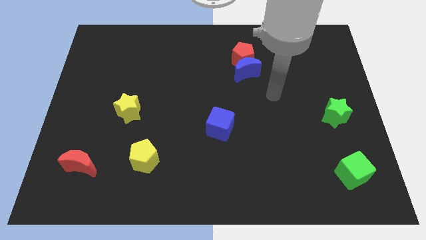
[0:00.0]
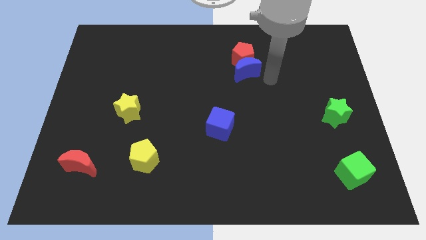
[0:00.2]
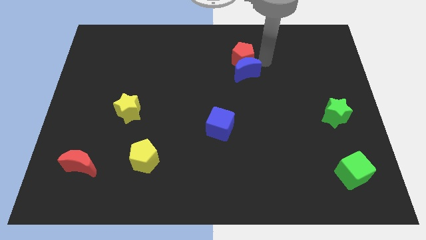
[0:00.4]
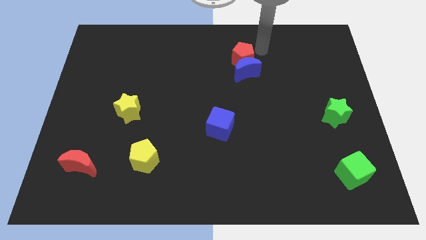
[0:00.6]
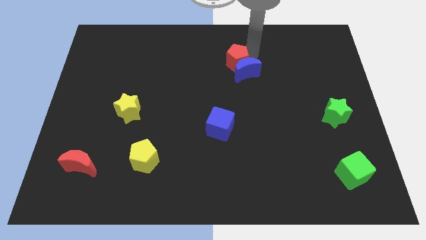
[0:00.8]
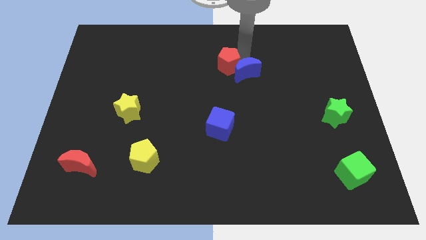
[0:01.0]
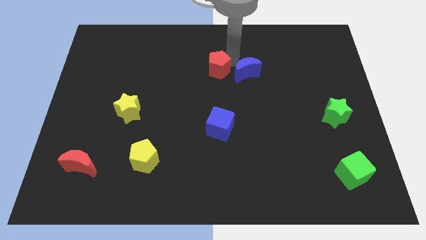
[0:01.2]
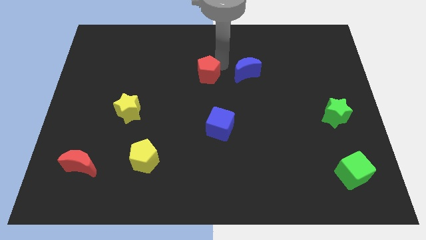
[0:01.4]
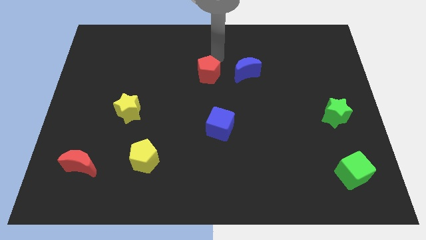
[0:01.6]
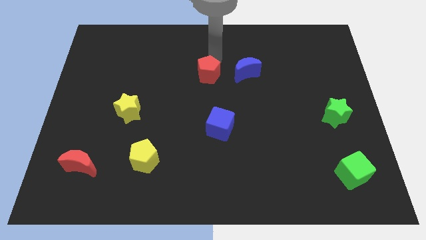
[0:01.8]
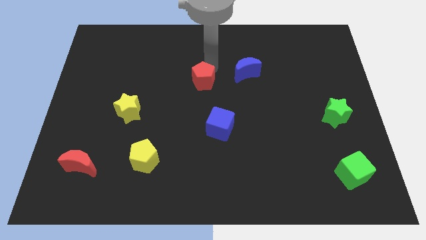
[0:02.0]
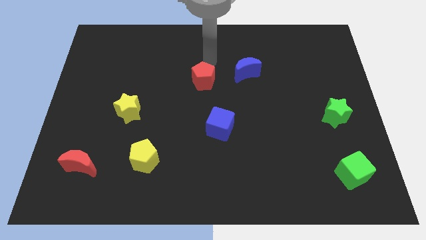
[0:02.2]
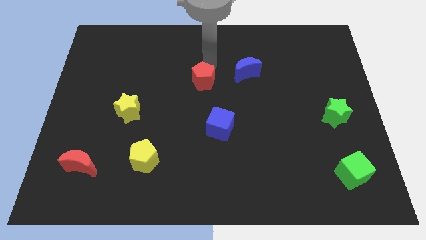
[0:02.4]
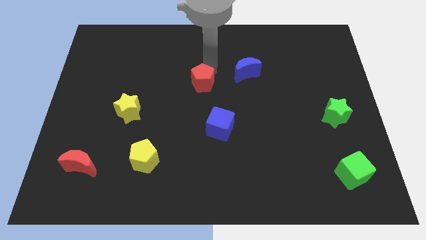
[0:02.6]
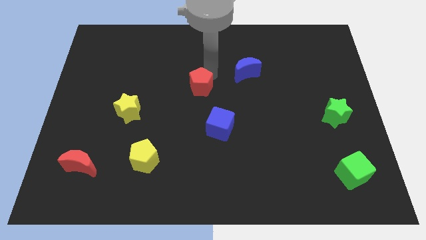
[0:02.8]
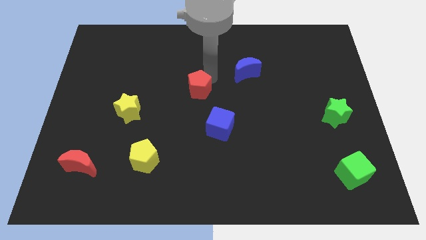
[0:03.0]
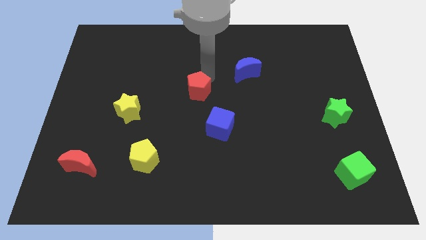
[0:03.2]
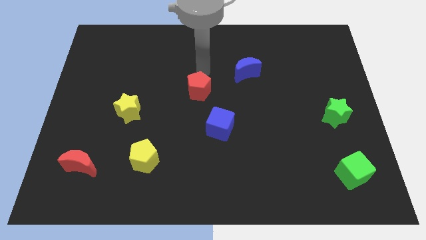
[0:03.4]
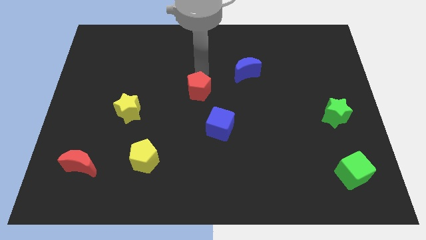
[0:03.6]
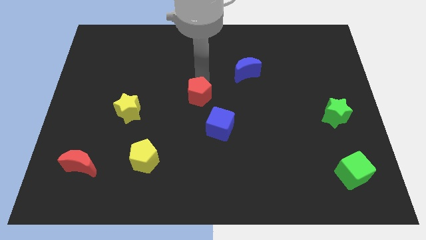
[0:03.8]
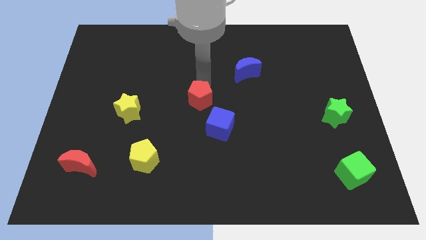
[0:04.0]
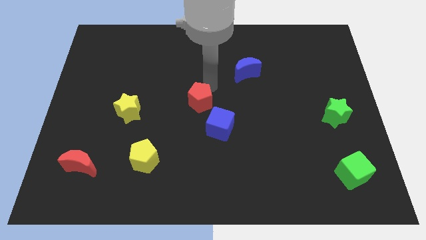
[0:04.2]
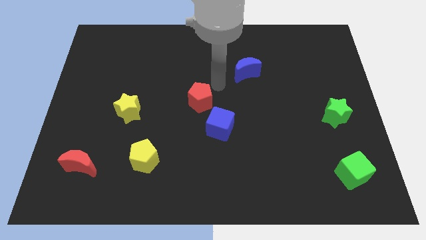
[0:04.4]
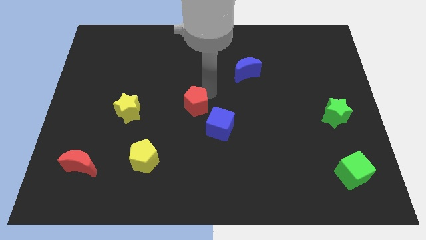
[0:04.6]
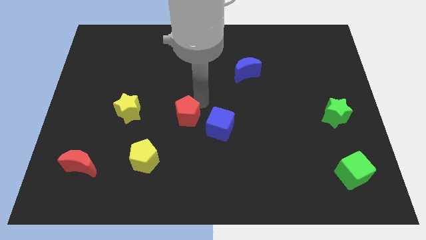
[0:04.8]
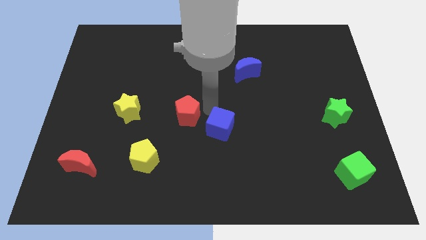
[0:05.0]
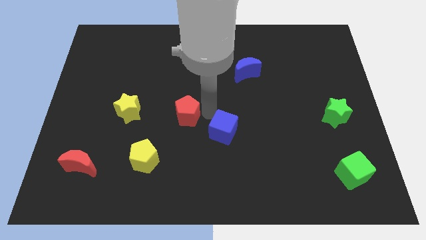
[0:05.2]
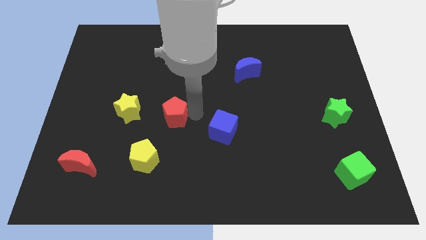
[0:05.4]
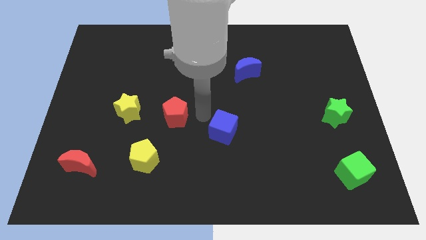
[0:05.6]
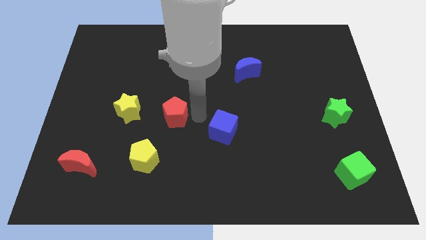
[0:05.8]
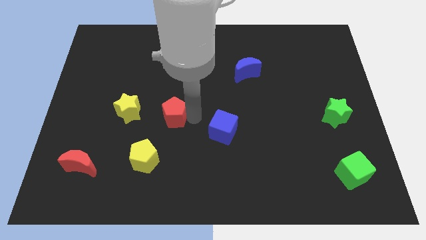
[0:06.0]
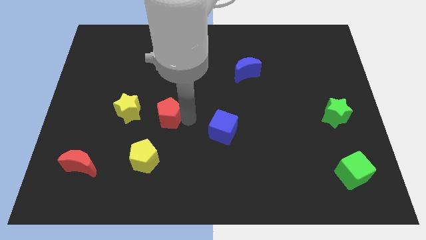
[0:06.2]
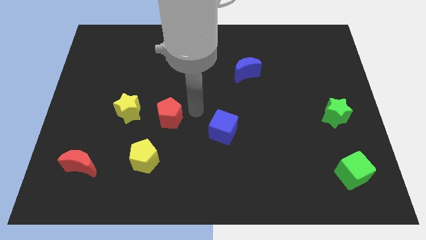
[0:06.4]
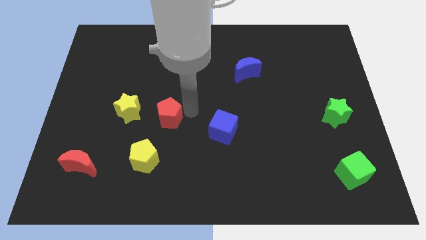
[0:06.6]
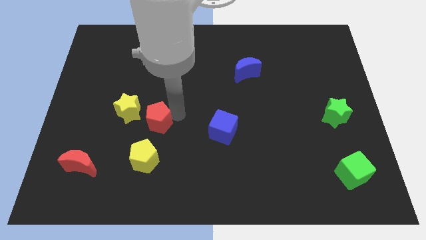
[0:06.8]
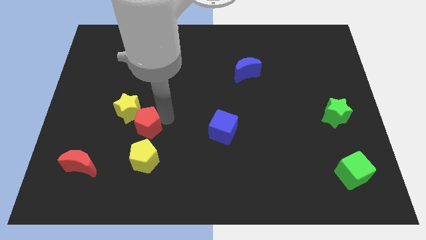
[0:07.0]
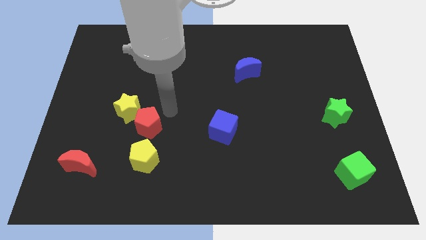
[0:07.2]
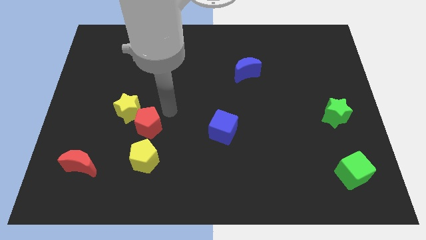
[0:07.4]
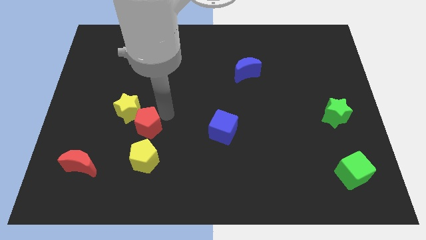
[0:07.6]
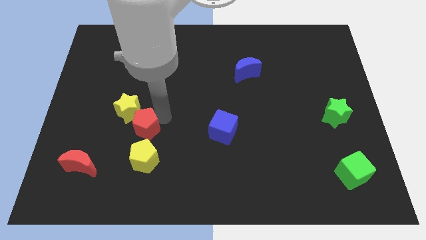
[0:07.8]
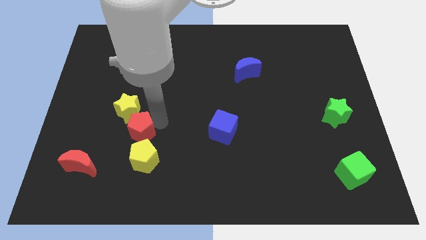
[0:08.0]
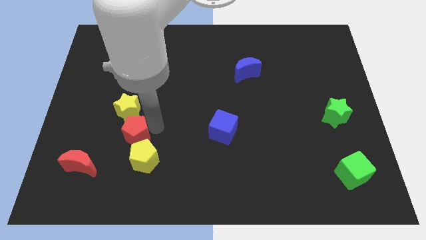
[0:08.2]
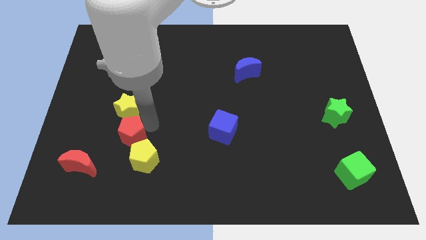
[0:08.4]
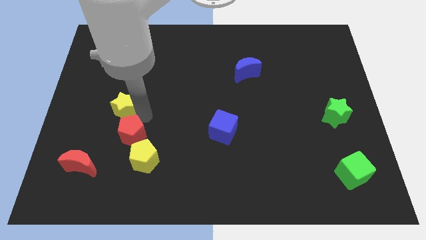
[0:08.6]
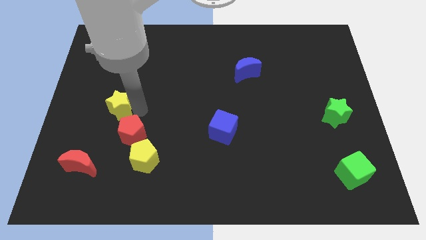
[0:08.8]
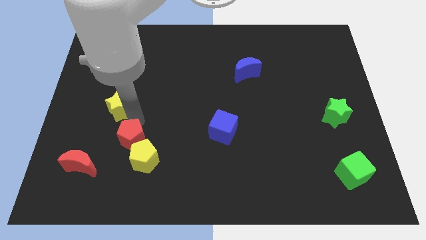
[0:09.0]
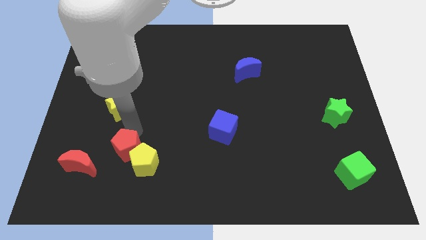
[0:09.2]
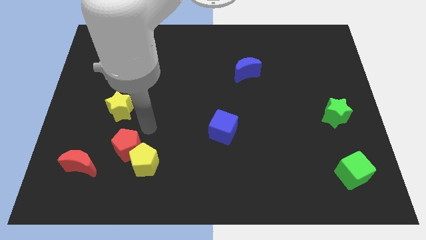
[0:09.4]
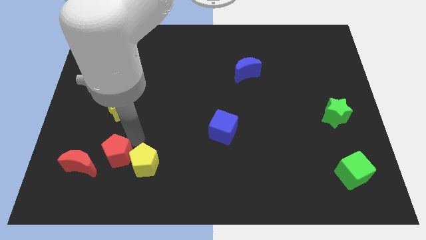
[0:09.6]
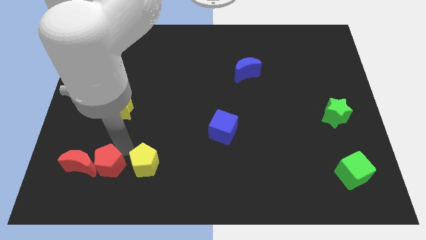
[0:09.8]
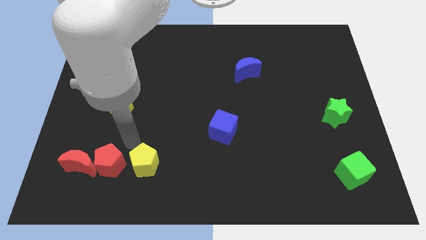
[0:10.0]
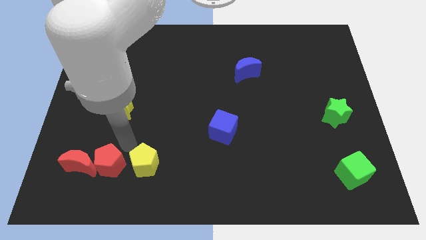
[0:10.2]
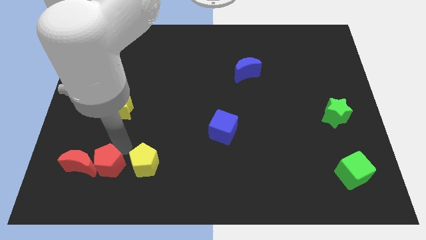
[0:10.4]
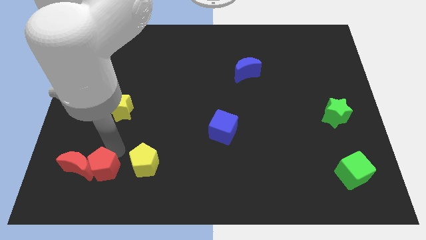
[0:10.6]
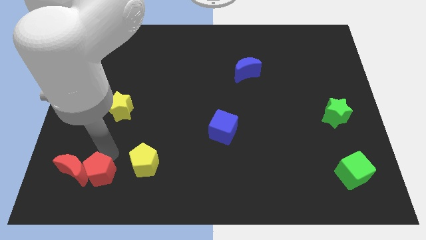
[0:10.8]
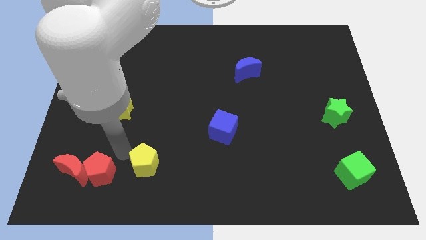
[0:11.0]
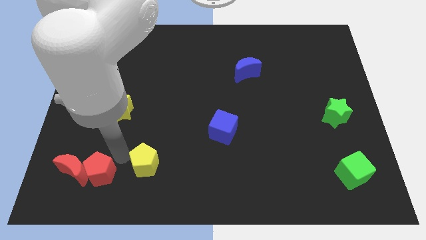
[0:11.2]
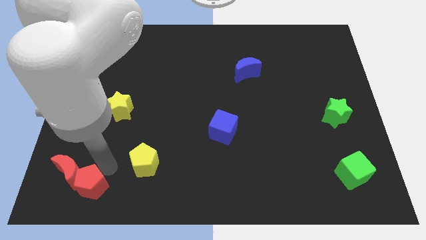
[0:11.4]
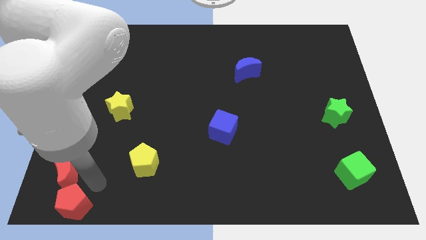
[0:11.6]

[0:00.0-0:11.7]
move the red pentagon to the bottom left corner
